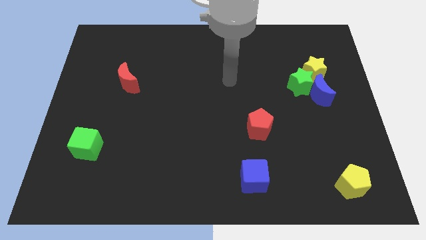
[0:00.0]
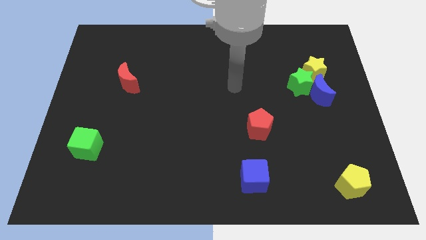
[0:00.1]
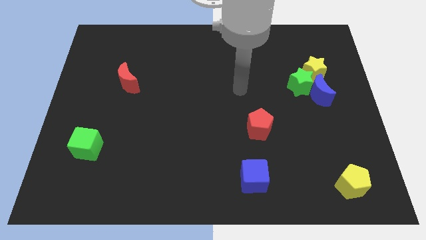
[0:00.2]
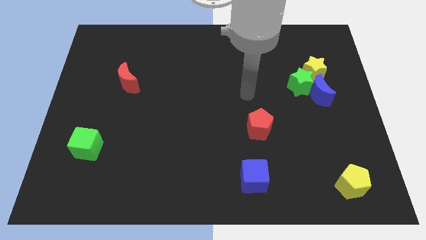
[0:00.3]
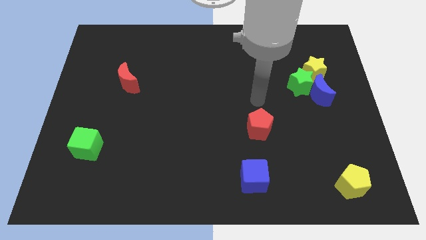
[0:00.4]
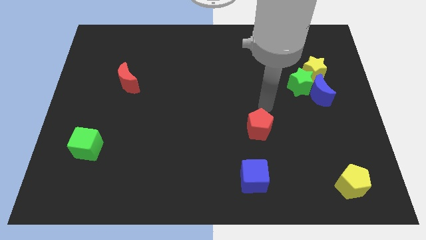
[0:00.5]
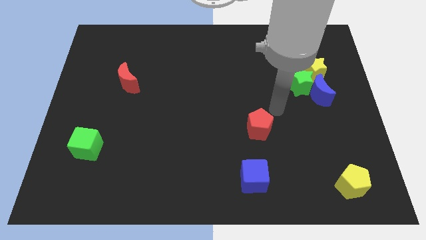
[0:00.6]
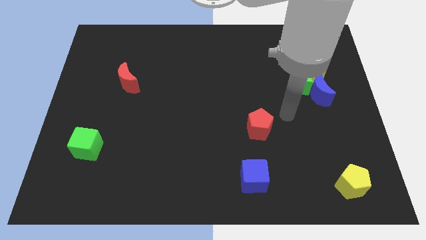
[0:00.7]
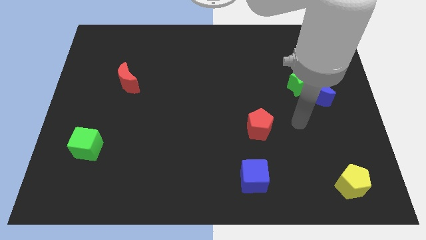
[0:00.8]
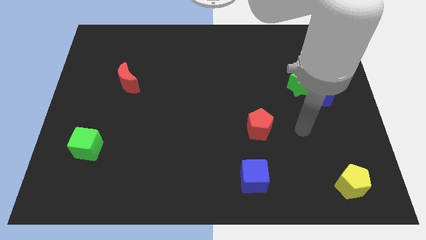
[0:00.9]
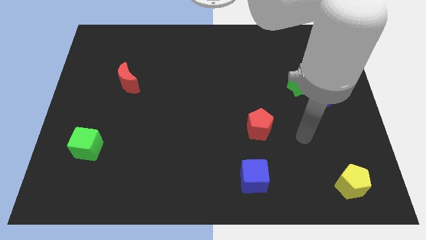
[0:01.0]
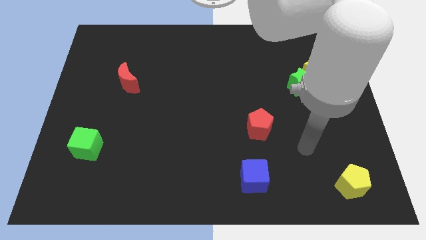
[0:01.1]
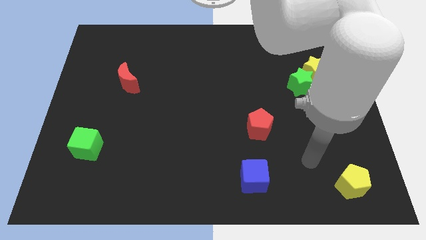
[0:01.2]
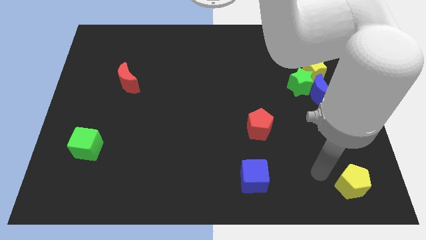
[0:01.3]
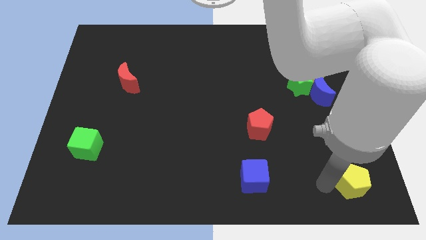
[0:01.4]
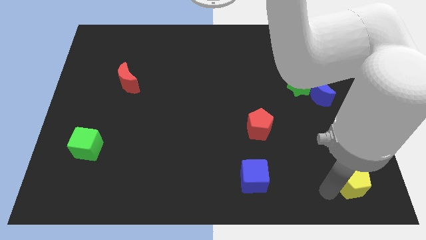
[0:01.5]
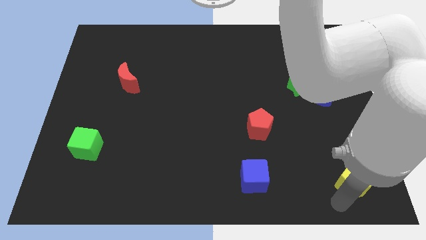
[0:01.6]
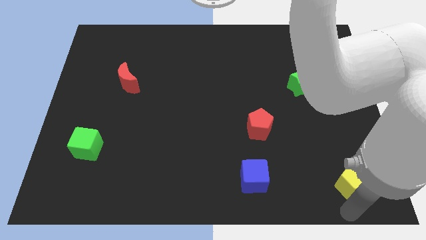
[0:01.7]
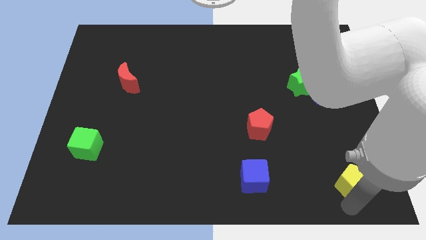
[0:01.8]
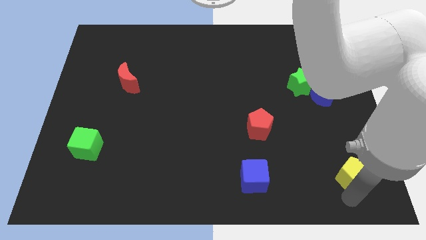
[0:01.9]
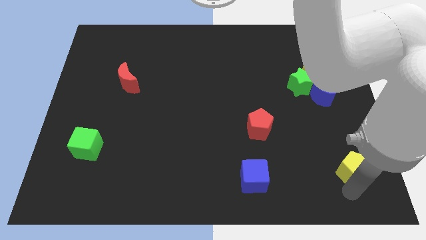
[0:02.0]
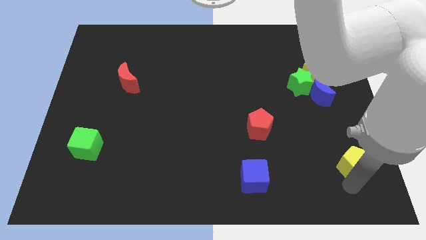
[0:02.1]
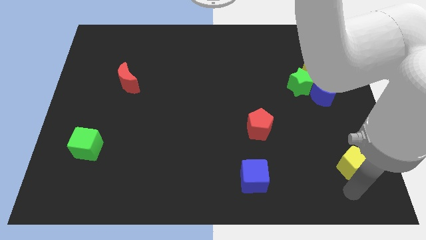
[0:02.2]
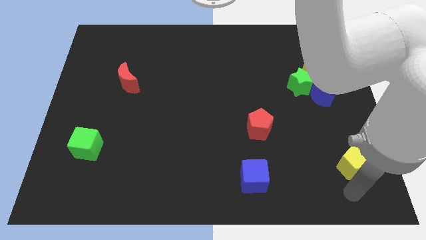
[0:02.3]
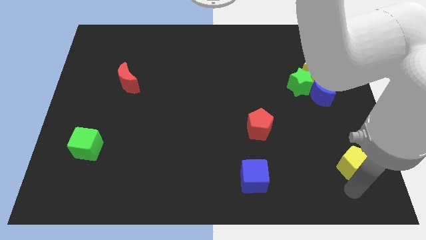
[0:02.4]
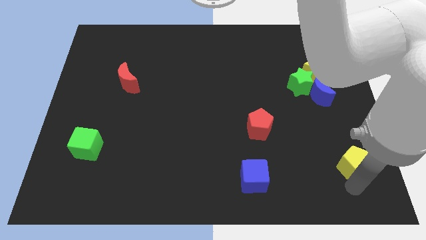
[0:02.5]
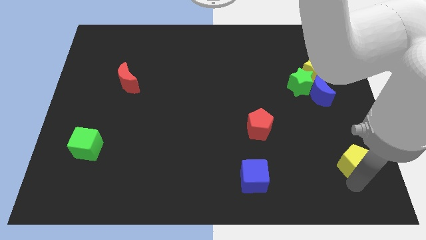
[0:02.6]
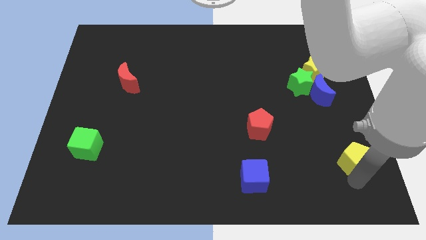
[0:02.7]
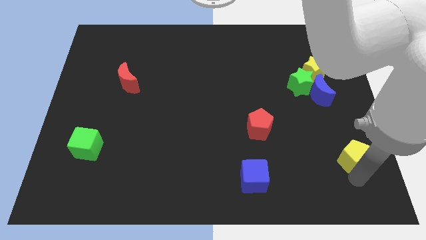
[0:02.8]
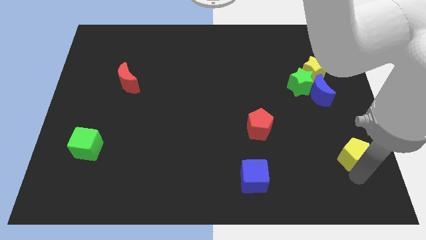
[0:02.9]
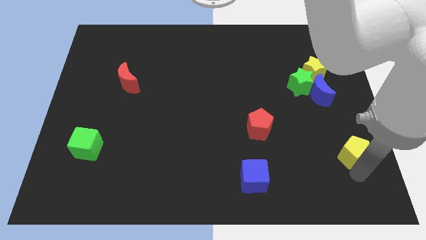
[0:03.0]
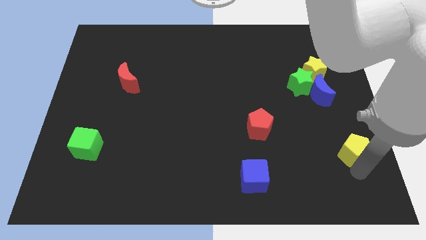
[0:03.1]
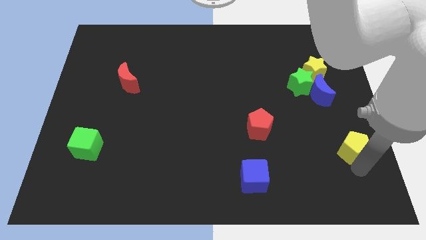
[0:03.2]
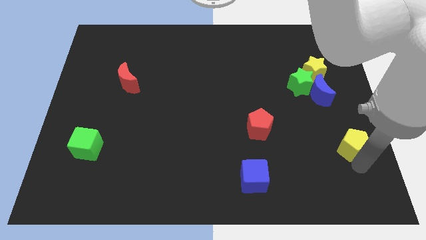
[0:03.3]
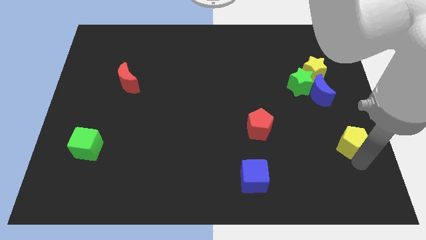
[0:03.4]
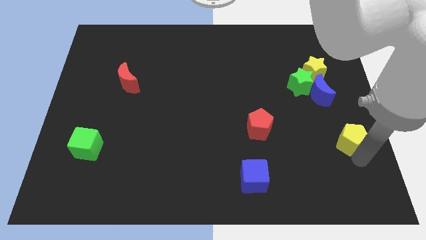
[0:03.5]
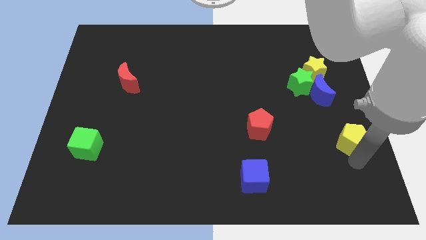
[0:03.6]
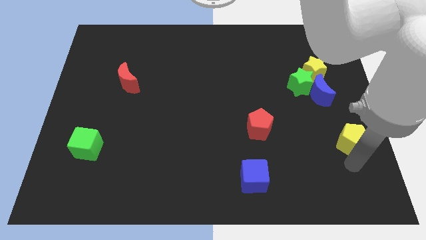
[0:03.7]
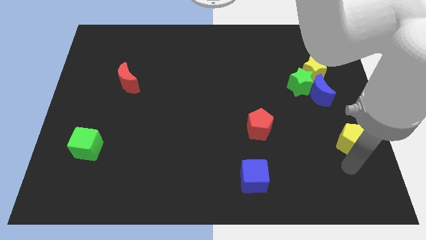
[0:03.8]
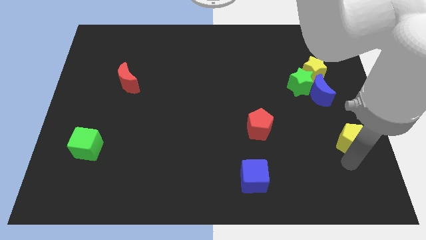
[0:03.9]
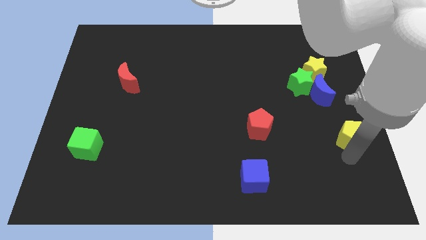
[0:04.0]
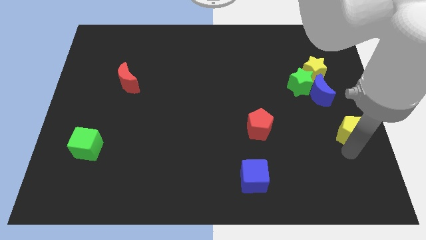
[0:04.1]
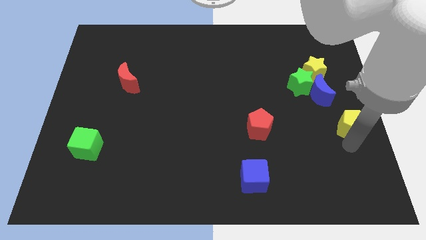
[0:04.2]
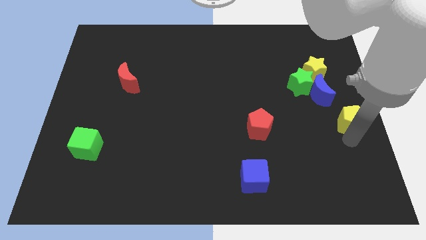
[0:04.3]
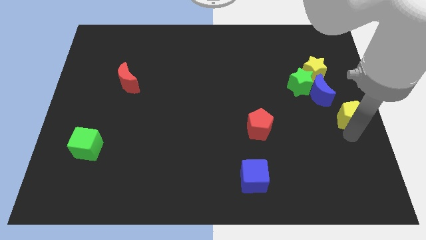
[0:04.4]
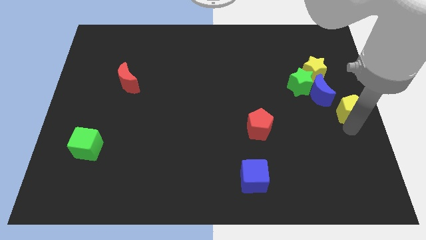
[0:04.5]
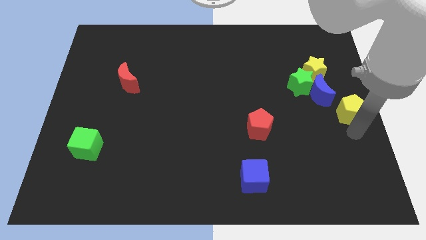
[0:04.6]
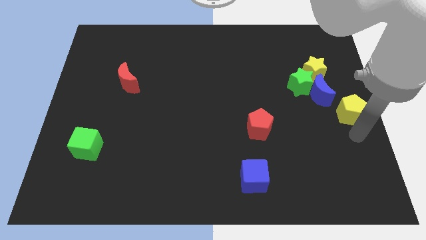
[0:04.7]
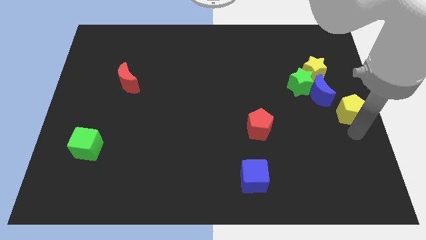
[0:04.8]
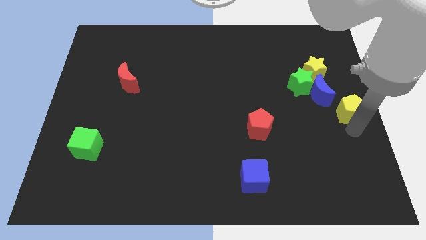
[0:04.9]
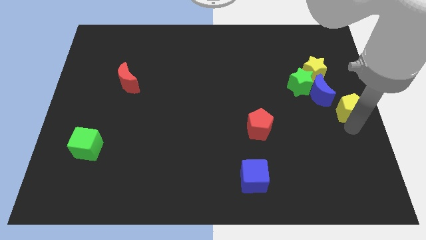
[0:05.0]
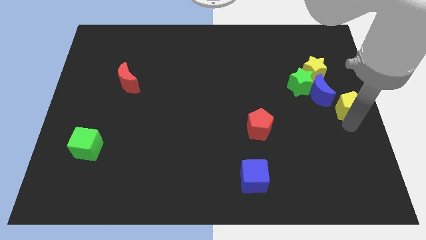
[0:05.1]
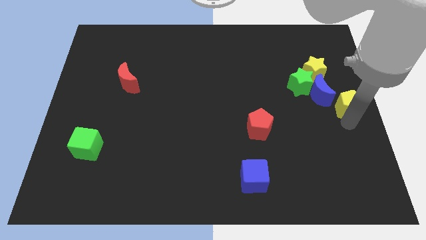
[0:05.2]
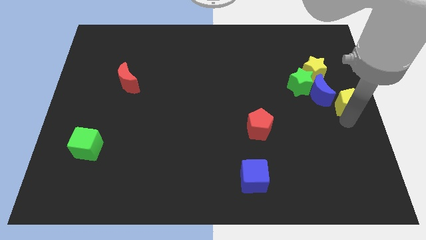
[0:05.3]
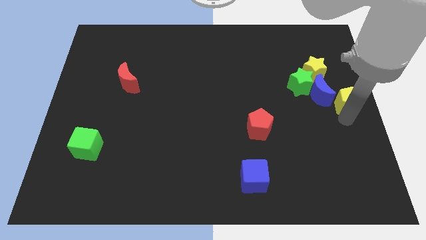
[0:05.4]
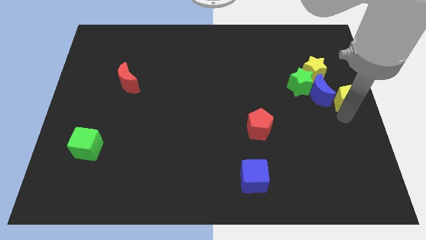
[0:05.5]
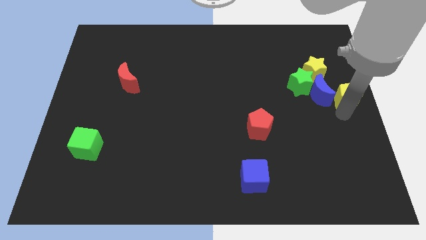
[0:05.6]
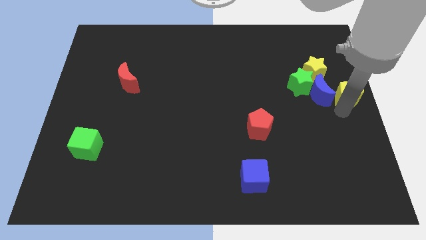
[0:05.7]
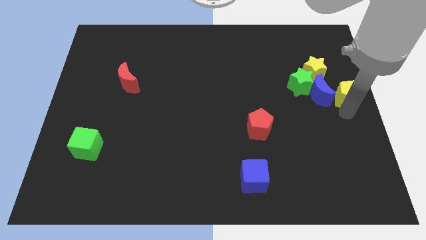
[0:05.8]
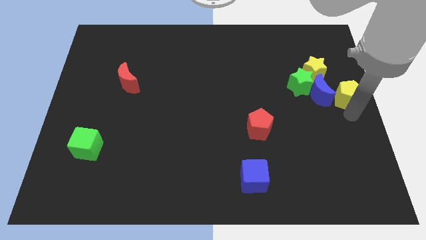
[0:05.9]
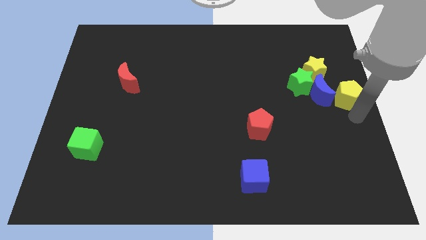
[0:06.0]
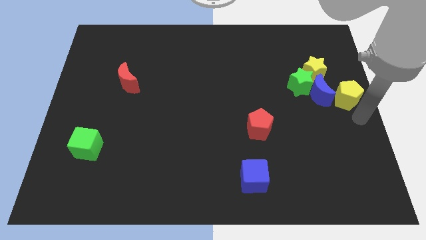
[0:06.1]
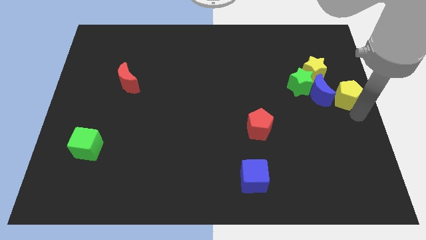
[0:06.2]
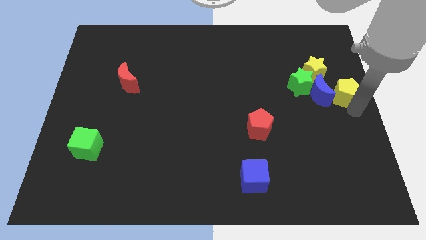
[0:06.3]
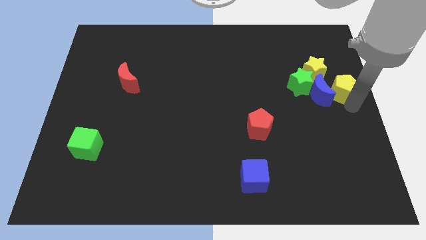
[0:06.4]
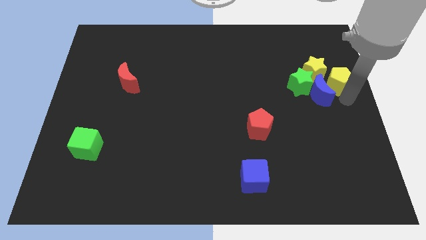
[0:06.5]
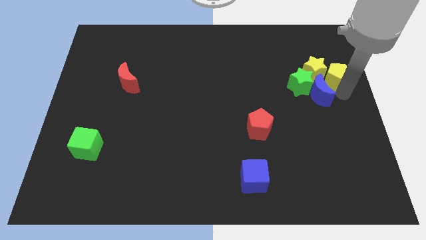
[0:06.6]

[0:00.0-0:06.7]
put the yellow pentagon to the top side of the blue moon
